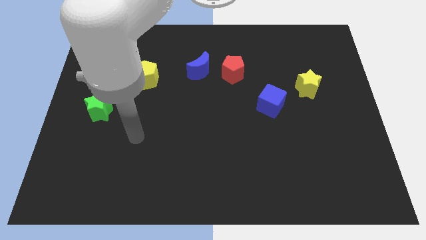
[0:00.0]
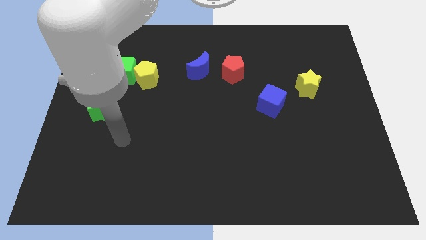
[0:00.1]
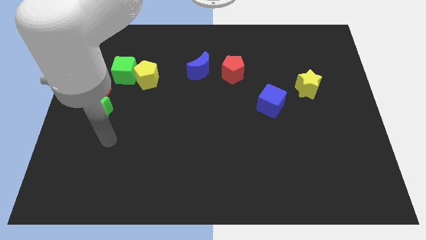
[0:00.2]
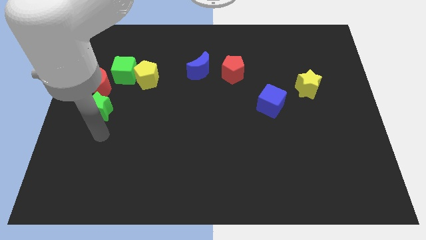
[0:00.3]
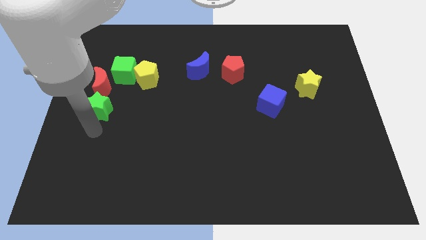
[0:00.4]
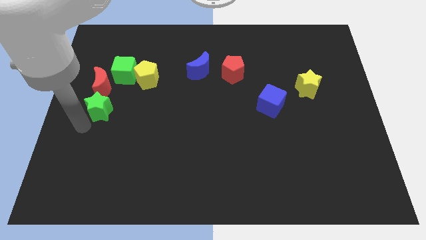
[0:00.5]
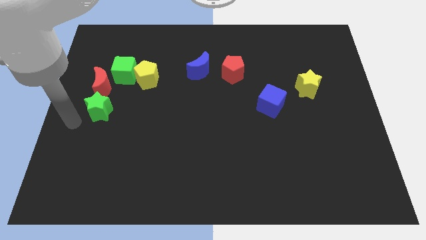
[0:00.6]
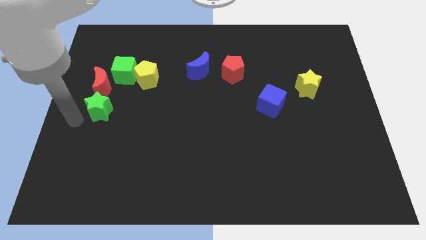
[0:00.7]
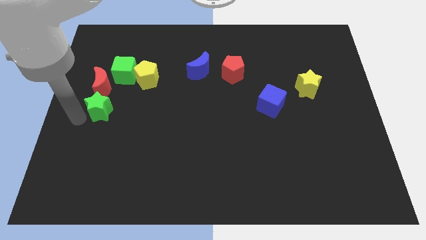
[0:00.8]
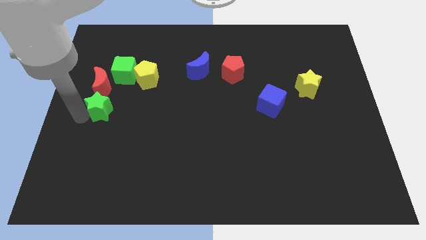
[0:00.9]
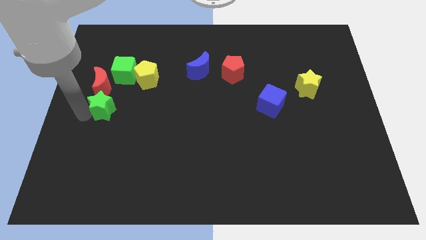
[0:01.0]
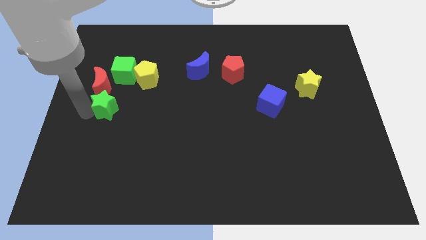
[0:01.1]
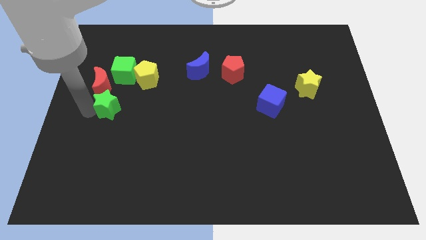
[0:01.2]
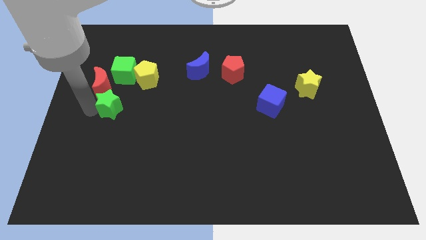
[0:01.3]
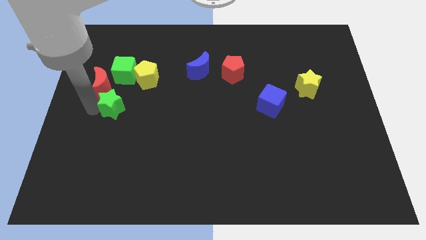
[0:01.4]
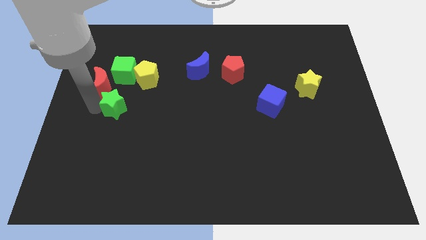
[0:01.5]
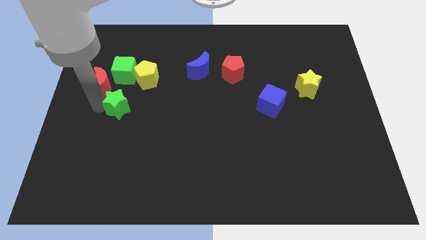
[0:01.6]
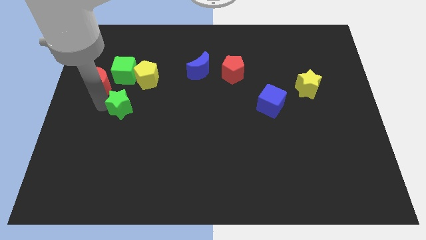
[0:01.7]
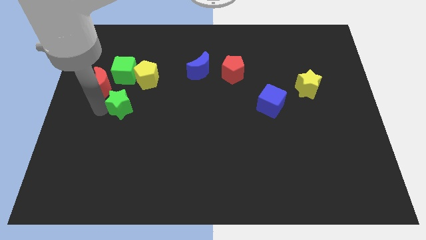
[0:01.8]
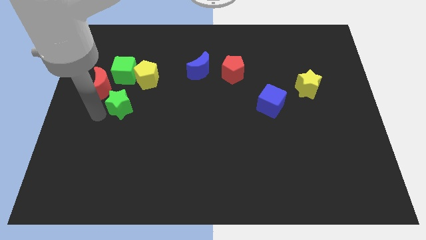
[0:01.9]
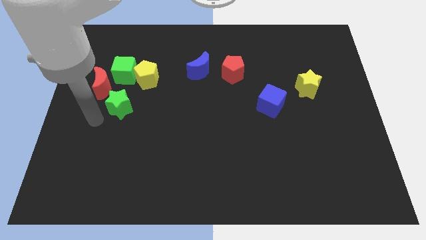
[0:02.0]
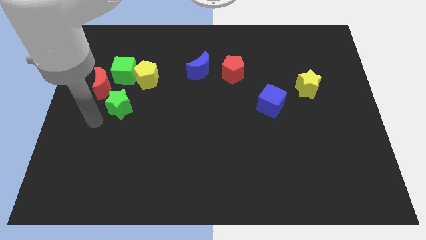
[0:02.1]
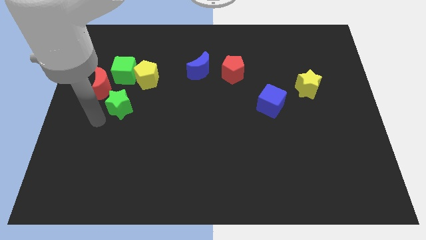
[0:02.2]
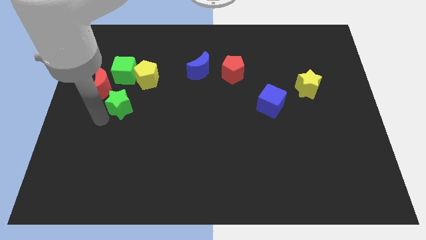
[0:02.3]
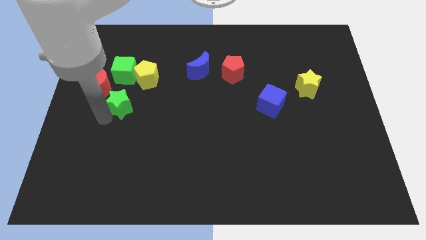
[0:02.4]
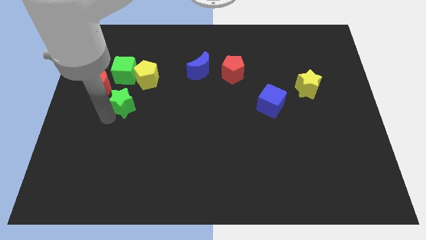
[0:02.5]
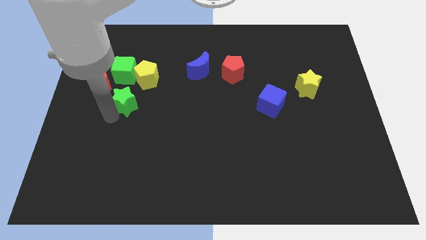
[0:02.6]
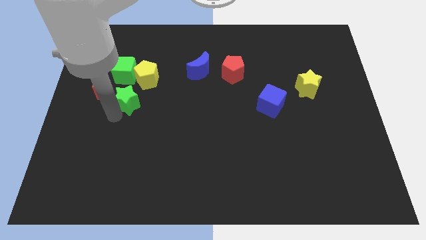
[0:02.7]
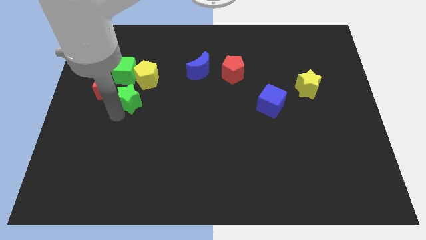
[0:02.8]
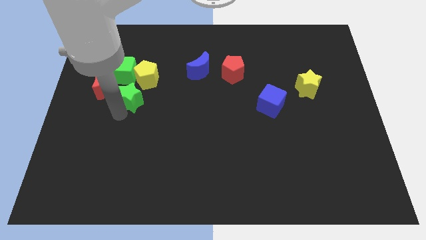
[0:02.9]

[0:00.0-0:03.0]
push the green star a bit diagonally up and right

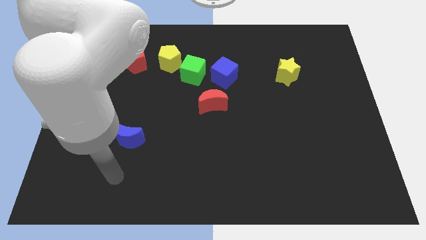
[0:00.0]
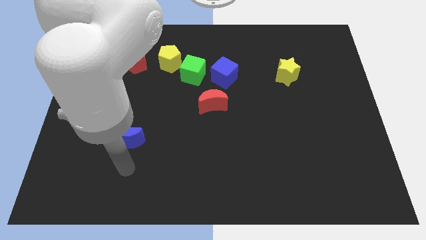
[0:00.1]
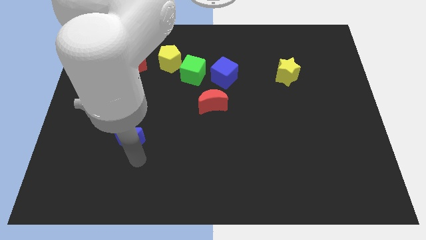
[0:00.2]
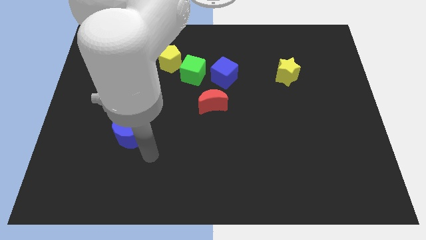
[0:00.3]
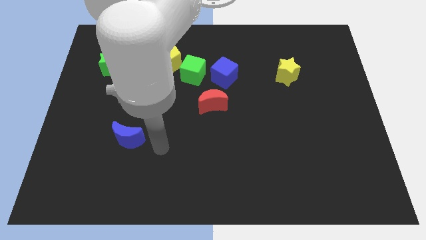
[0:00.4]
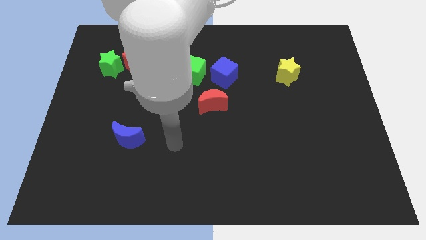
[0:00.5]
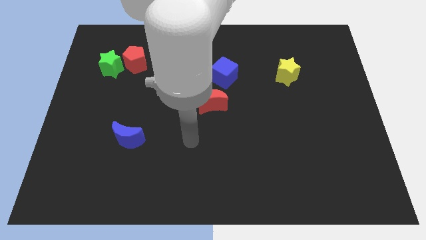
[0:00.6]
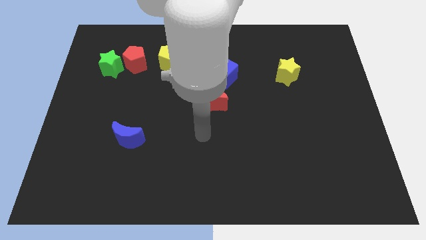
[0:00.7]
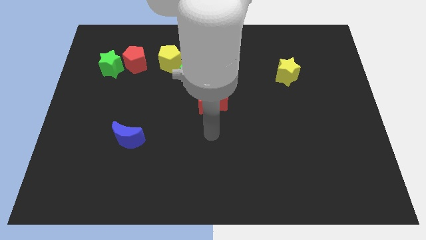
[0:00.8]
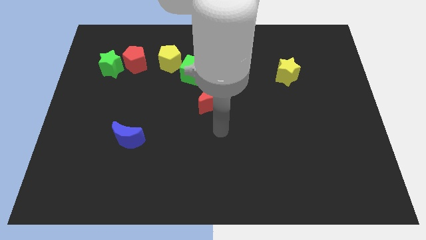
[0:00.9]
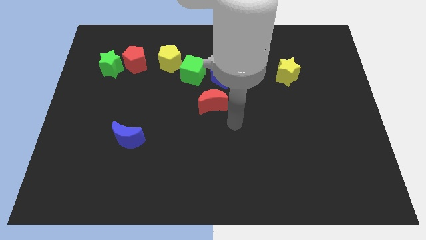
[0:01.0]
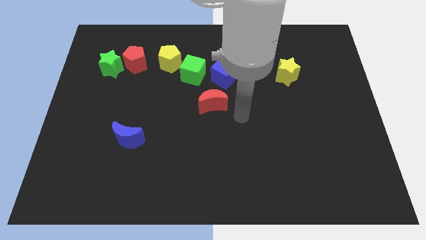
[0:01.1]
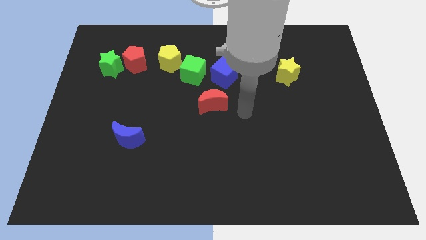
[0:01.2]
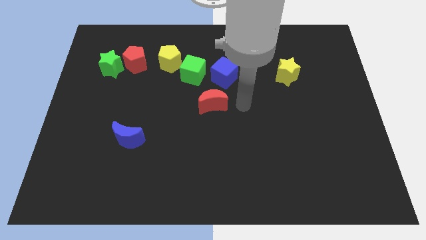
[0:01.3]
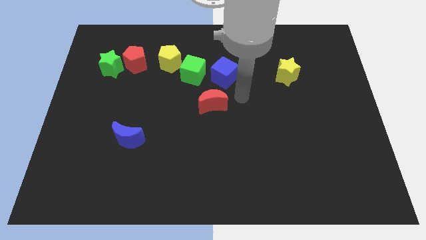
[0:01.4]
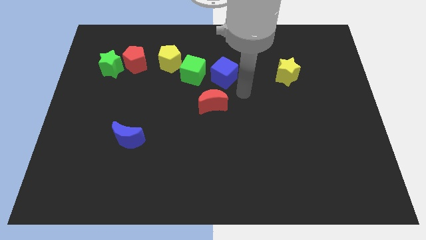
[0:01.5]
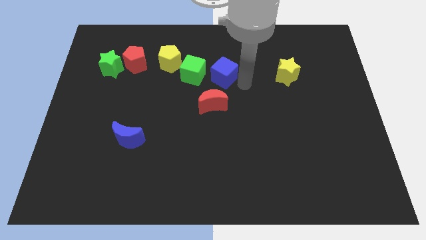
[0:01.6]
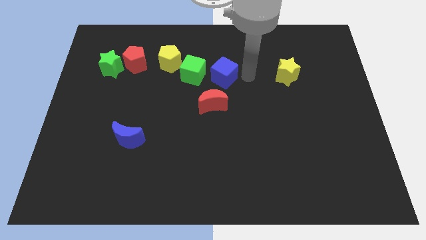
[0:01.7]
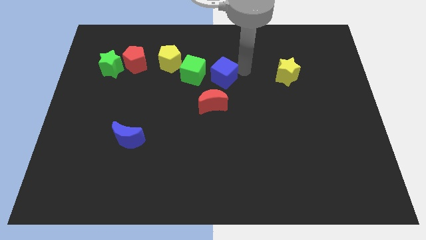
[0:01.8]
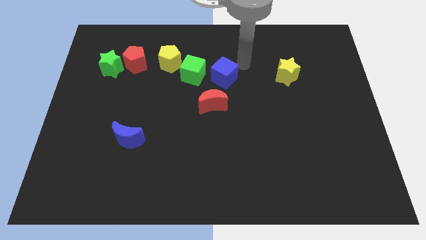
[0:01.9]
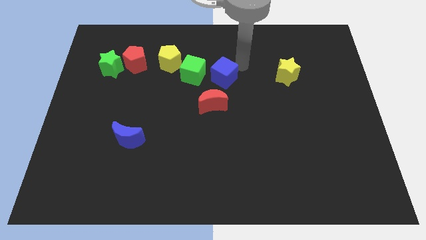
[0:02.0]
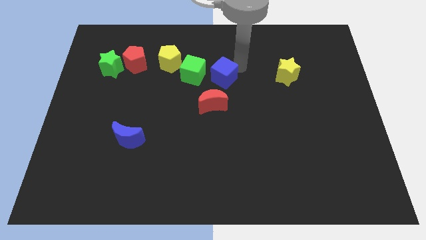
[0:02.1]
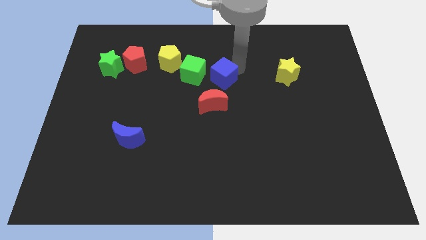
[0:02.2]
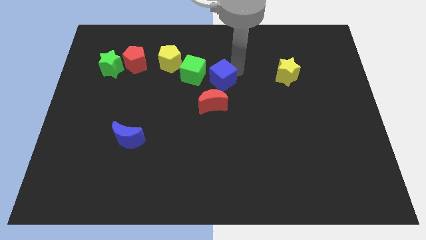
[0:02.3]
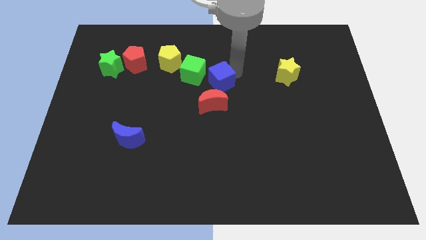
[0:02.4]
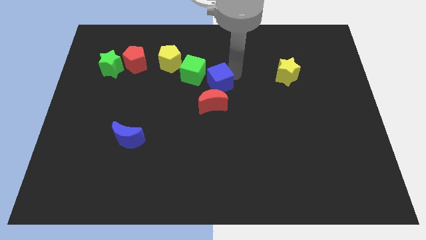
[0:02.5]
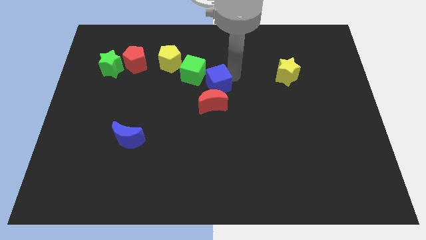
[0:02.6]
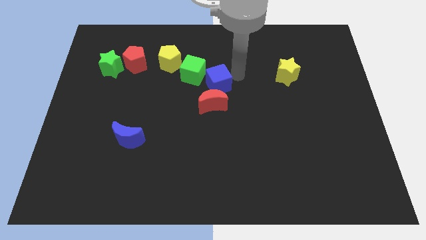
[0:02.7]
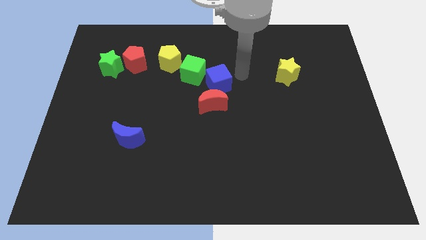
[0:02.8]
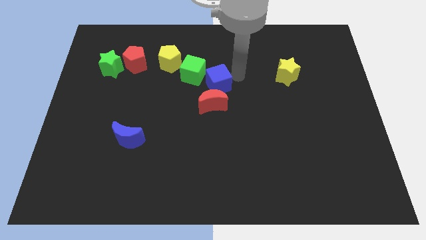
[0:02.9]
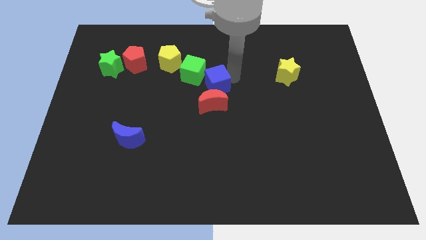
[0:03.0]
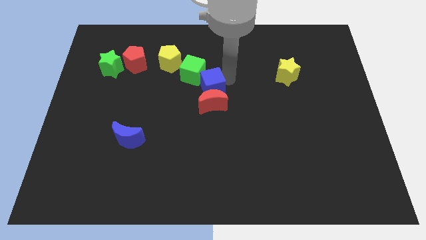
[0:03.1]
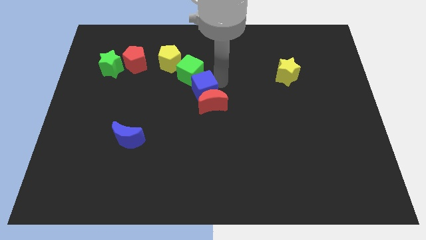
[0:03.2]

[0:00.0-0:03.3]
push the blue cube a little bit diagonally downwards and to the left

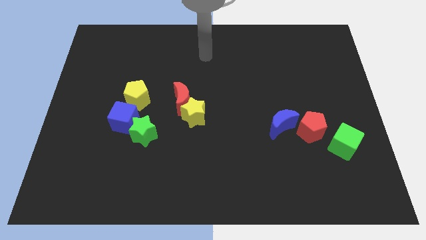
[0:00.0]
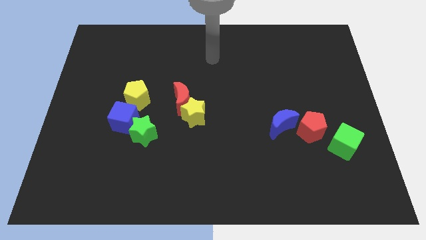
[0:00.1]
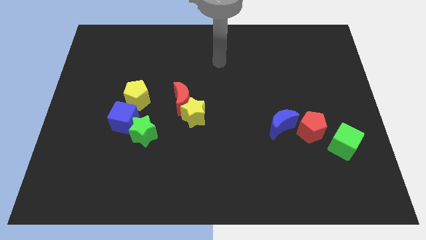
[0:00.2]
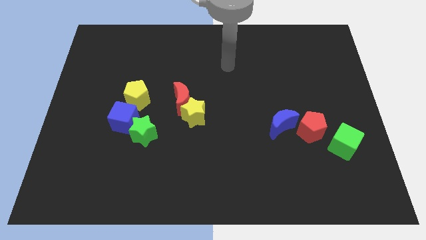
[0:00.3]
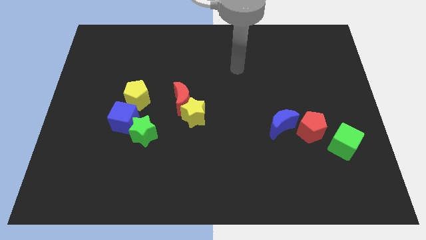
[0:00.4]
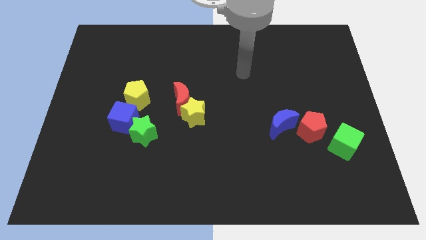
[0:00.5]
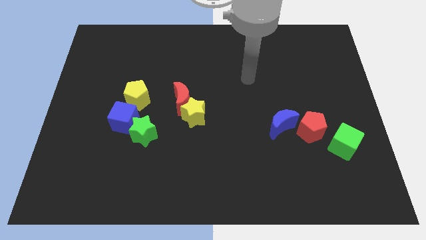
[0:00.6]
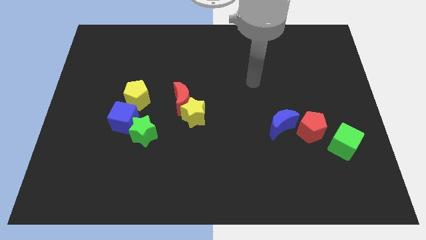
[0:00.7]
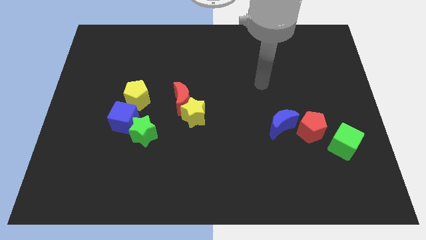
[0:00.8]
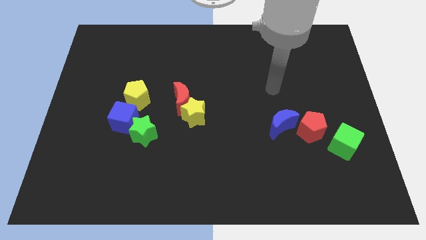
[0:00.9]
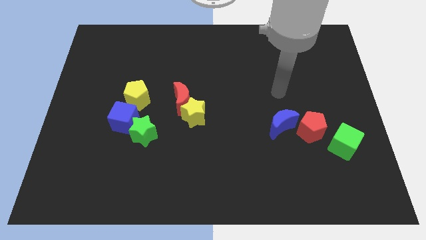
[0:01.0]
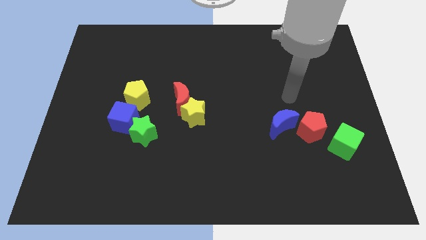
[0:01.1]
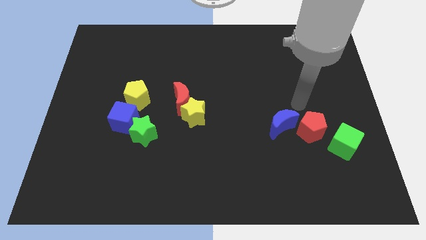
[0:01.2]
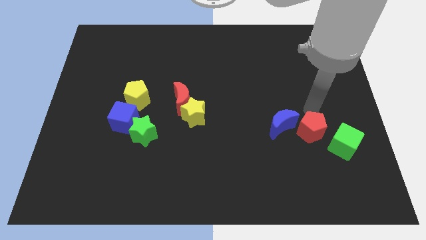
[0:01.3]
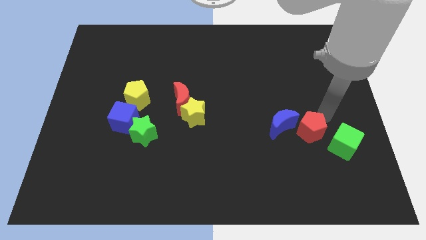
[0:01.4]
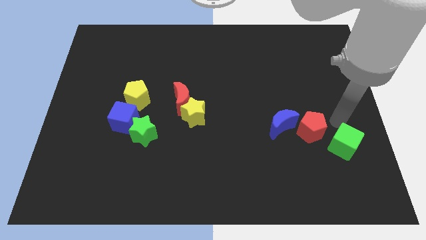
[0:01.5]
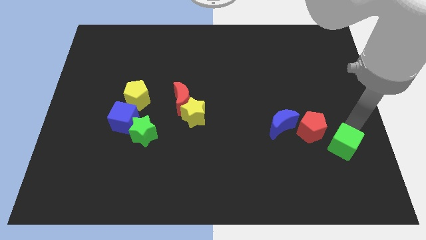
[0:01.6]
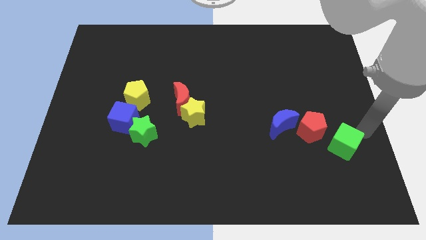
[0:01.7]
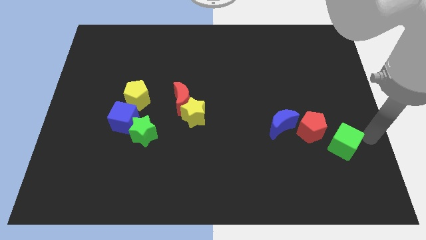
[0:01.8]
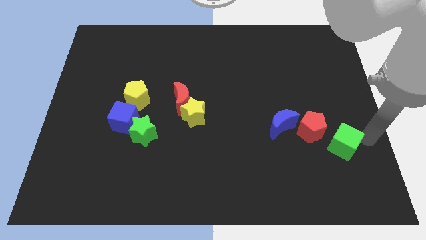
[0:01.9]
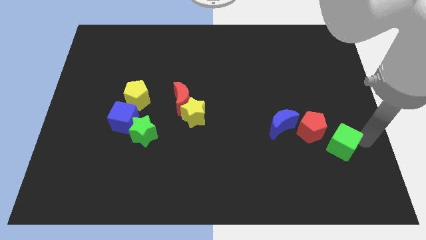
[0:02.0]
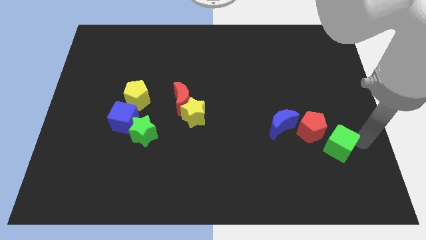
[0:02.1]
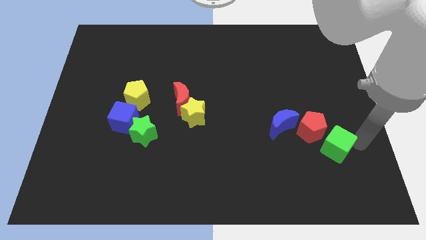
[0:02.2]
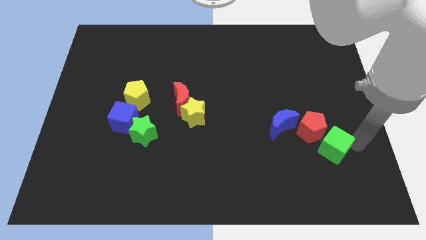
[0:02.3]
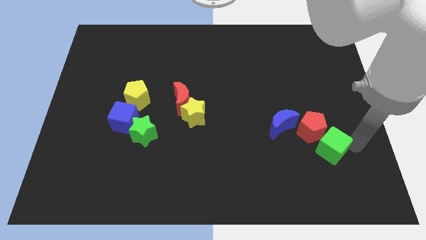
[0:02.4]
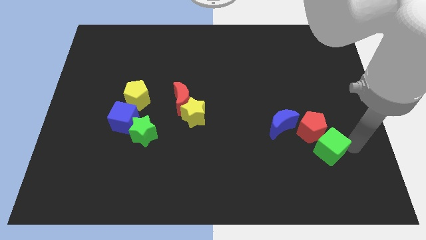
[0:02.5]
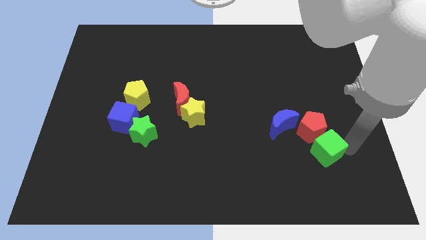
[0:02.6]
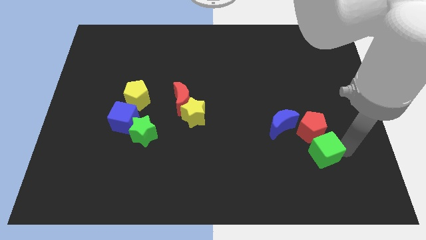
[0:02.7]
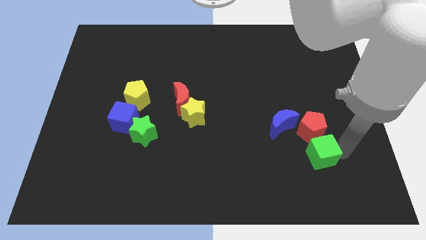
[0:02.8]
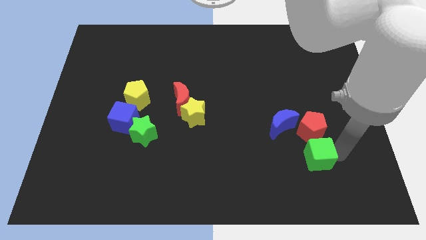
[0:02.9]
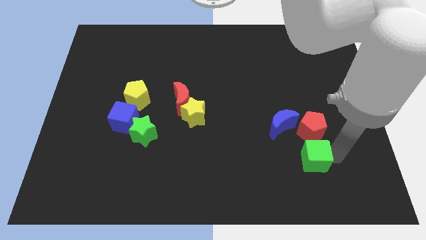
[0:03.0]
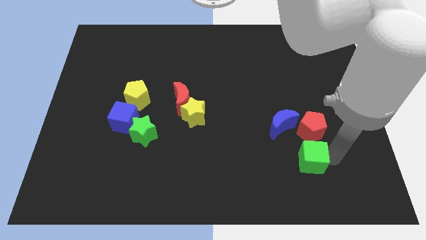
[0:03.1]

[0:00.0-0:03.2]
slightly push the green cube to the left
